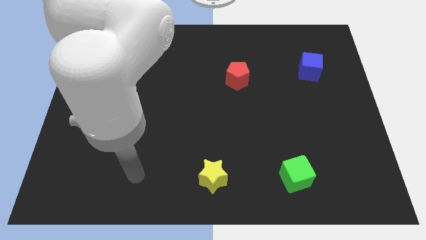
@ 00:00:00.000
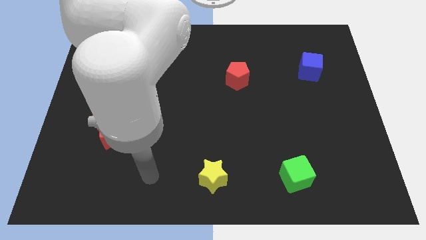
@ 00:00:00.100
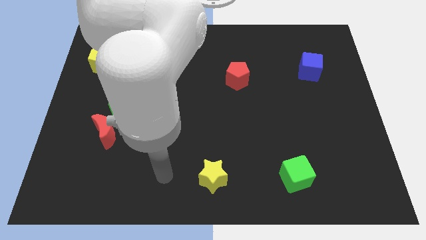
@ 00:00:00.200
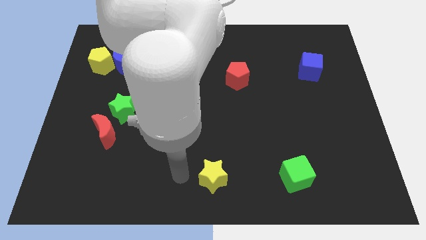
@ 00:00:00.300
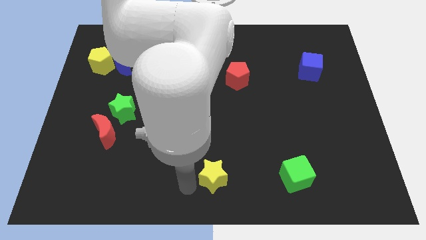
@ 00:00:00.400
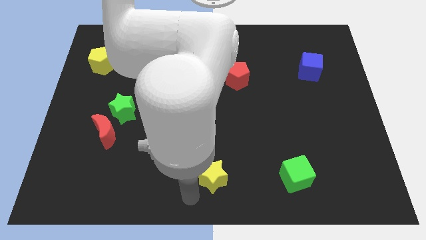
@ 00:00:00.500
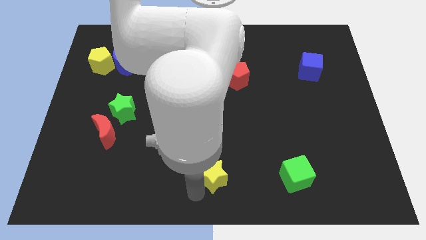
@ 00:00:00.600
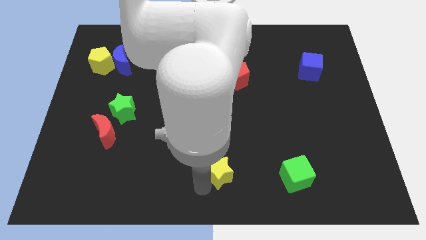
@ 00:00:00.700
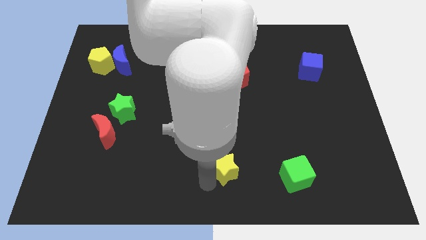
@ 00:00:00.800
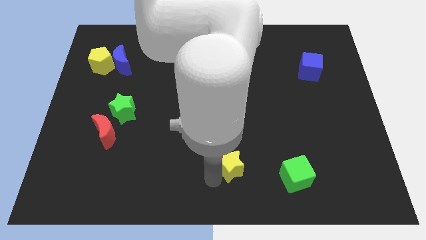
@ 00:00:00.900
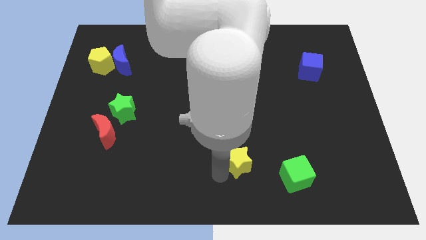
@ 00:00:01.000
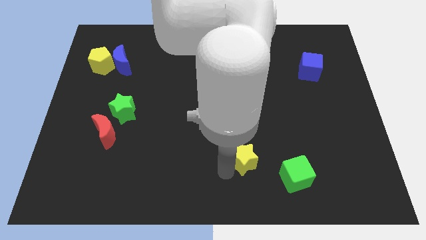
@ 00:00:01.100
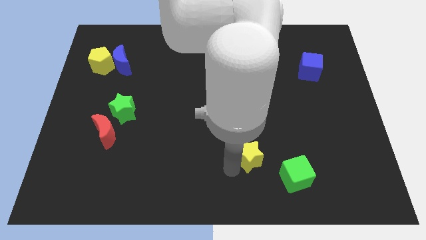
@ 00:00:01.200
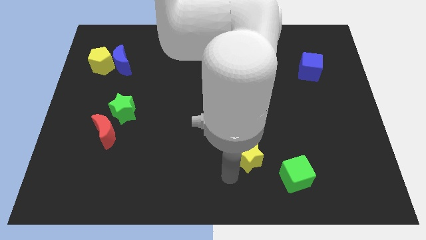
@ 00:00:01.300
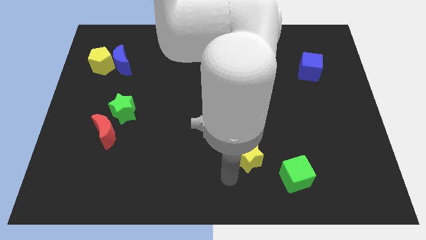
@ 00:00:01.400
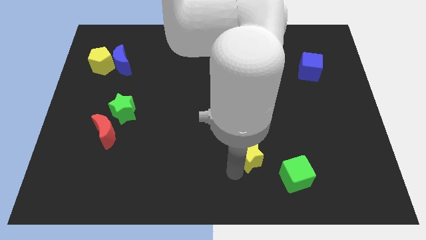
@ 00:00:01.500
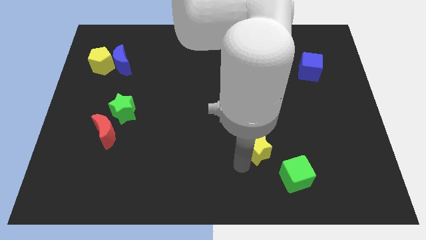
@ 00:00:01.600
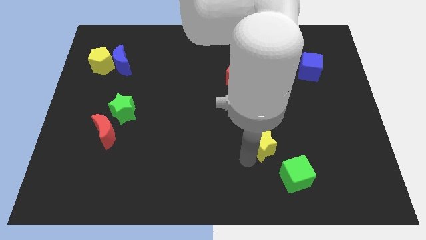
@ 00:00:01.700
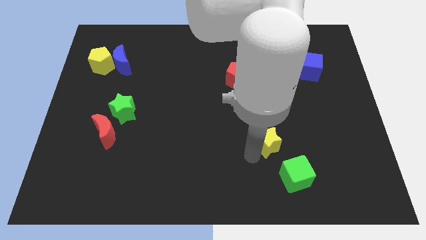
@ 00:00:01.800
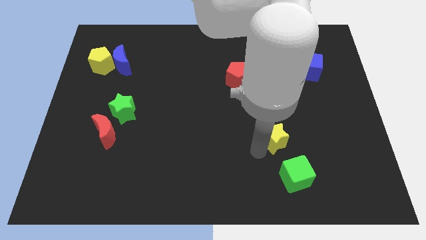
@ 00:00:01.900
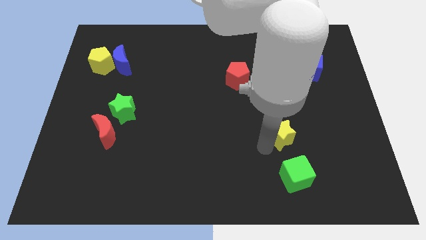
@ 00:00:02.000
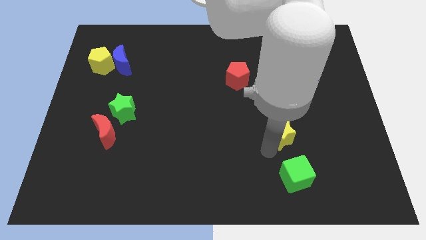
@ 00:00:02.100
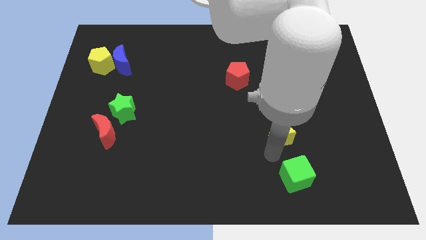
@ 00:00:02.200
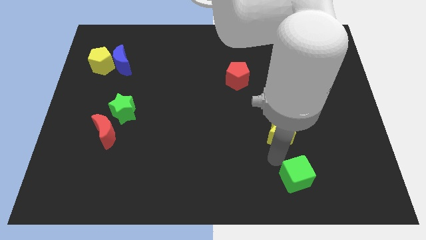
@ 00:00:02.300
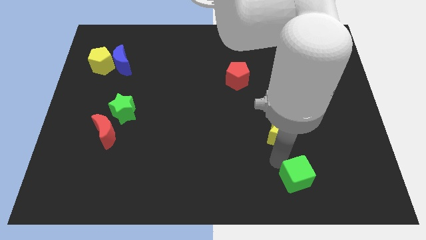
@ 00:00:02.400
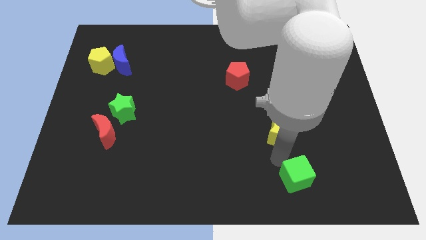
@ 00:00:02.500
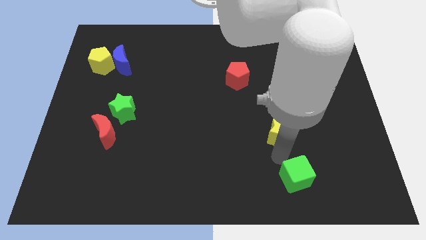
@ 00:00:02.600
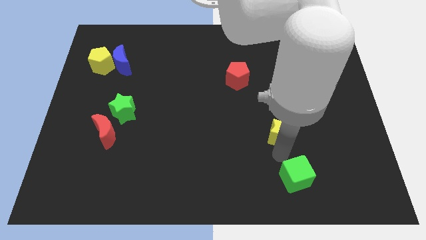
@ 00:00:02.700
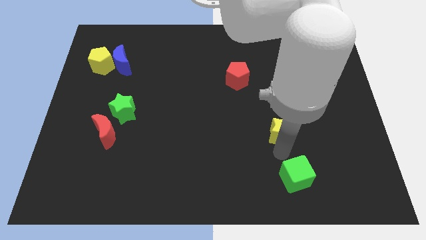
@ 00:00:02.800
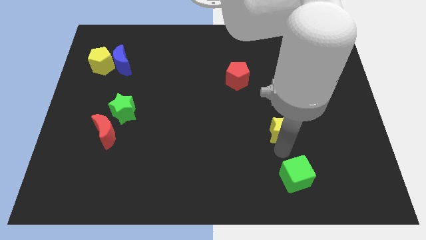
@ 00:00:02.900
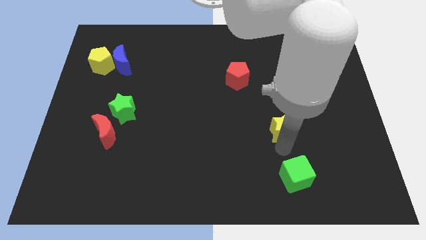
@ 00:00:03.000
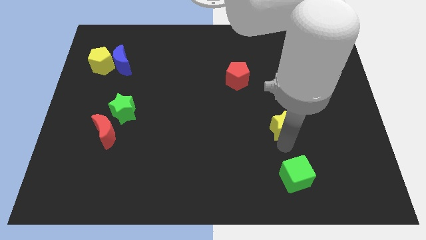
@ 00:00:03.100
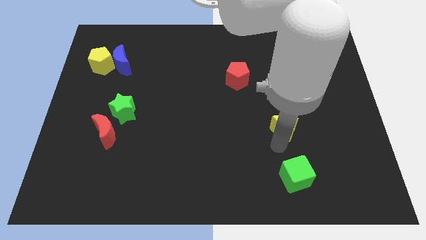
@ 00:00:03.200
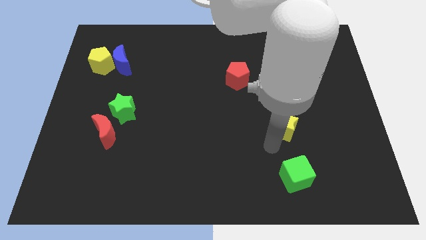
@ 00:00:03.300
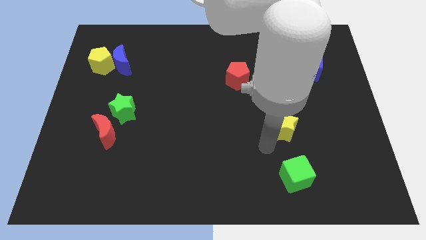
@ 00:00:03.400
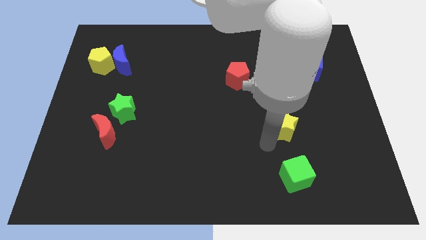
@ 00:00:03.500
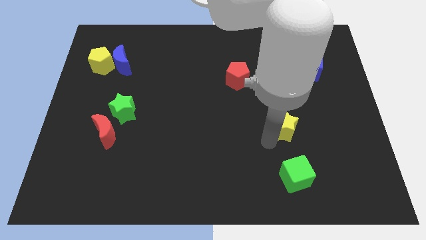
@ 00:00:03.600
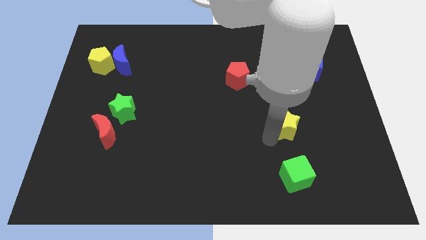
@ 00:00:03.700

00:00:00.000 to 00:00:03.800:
slide the yellow star up and right diagonally

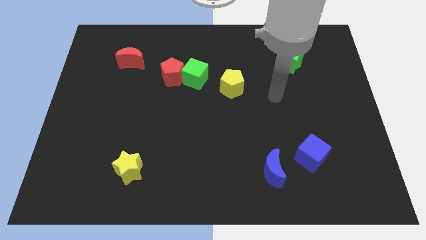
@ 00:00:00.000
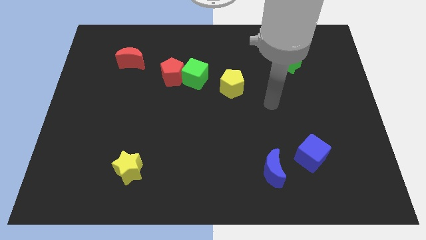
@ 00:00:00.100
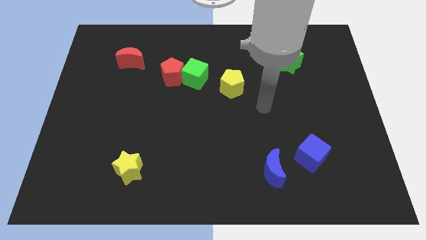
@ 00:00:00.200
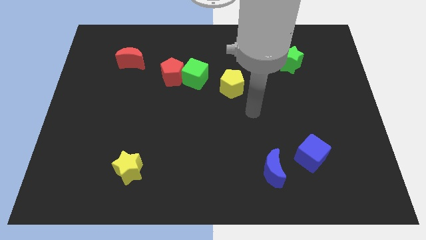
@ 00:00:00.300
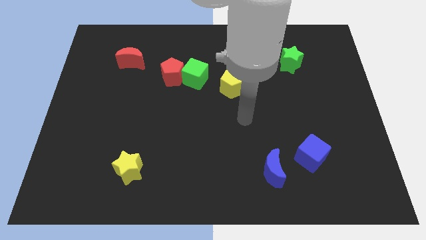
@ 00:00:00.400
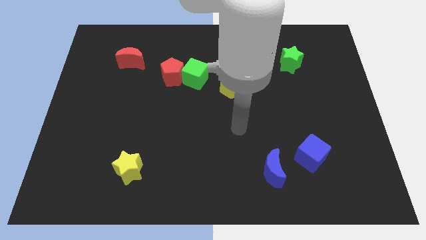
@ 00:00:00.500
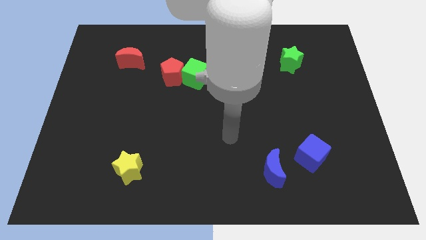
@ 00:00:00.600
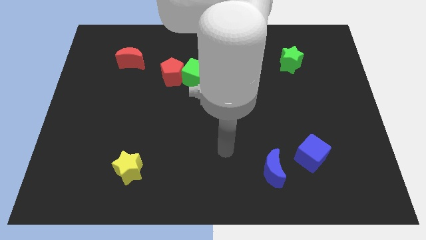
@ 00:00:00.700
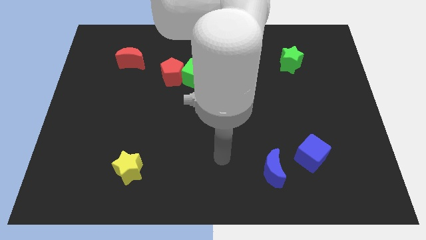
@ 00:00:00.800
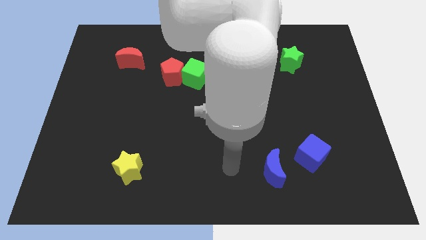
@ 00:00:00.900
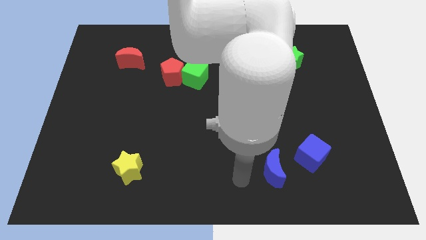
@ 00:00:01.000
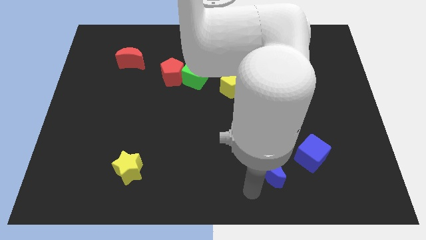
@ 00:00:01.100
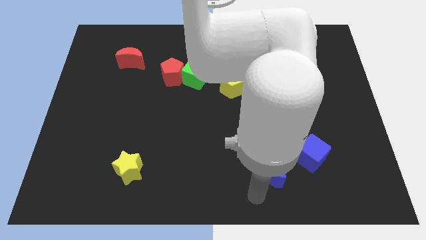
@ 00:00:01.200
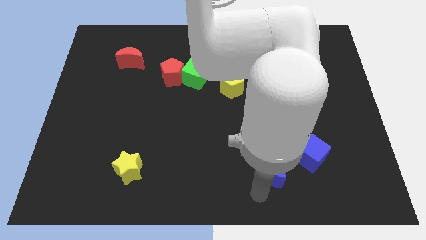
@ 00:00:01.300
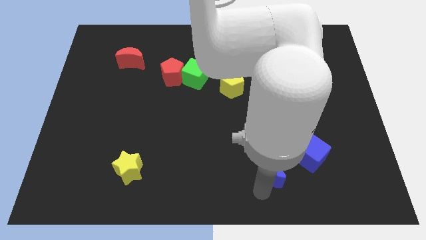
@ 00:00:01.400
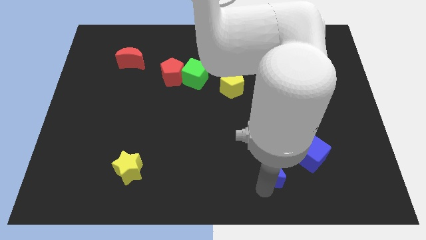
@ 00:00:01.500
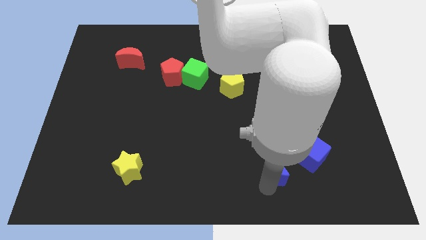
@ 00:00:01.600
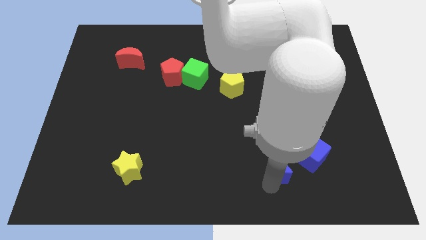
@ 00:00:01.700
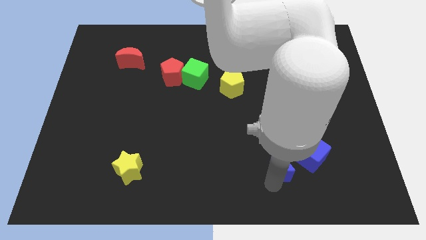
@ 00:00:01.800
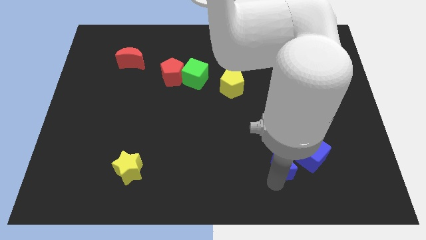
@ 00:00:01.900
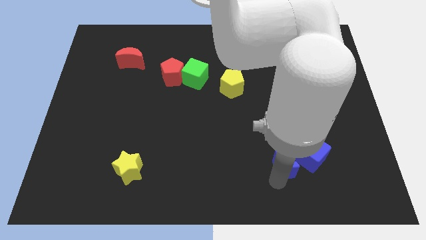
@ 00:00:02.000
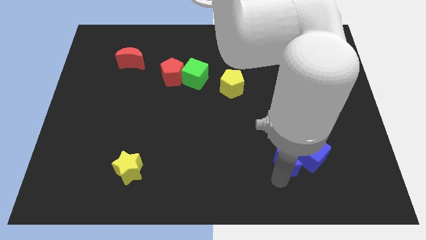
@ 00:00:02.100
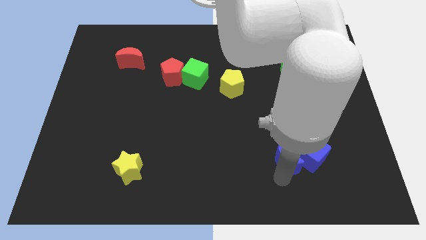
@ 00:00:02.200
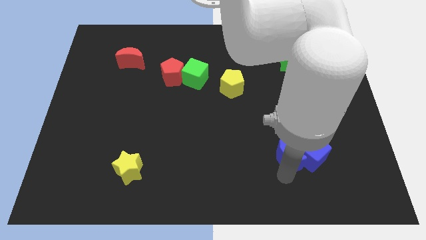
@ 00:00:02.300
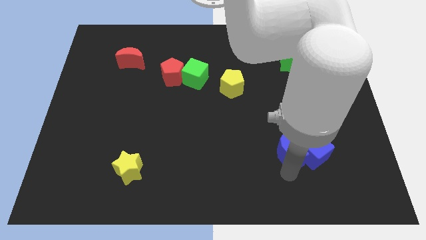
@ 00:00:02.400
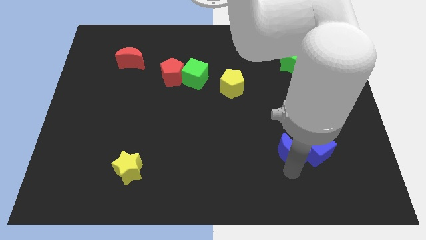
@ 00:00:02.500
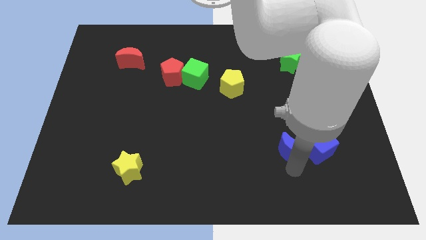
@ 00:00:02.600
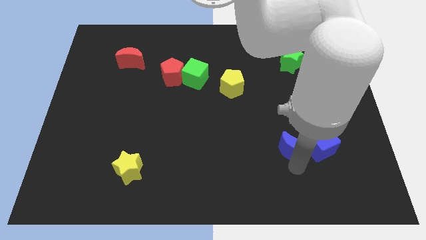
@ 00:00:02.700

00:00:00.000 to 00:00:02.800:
slightly slide the blue moon up and then to the right

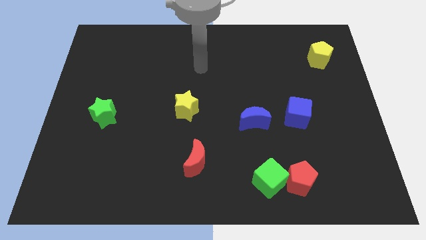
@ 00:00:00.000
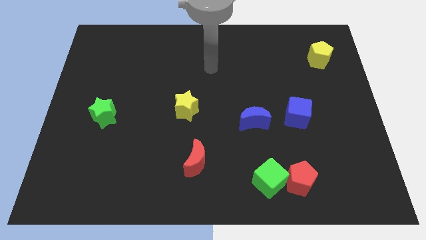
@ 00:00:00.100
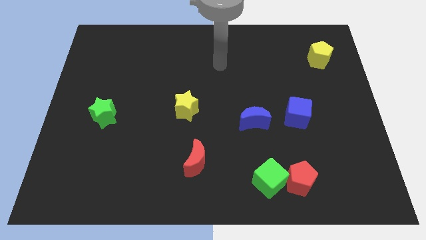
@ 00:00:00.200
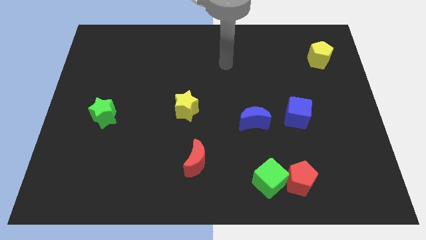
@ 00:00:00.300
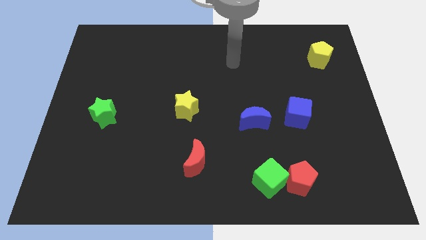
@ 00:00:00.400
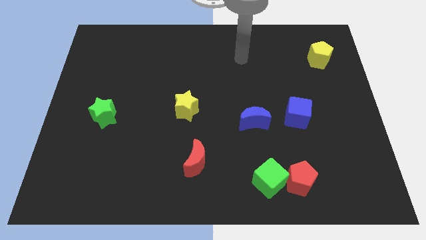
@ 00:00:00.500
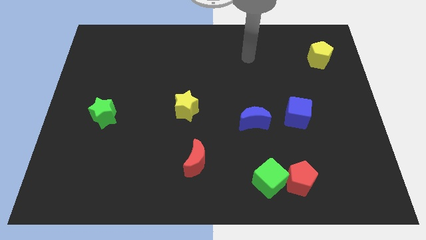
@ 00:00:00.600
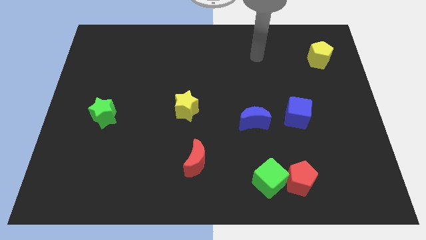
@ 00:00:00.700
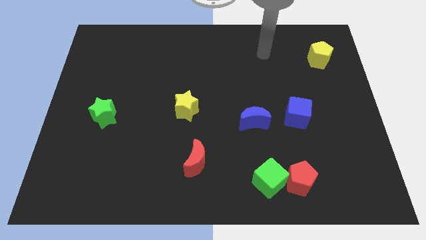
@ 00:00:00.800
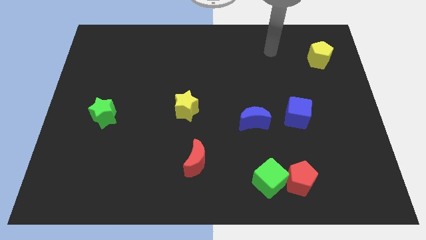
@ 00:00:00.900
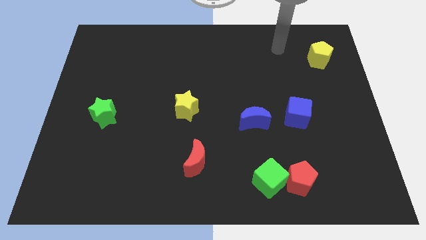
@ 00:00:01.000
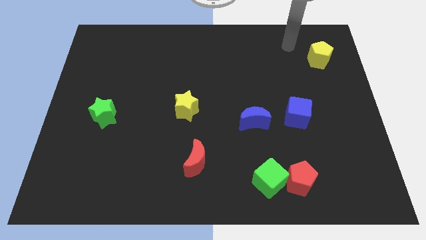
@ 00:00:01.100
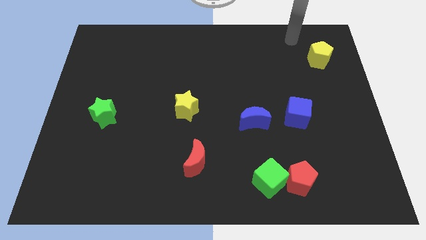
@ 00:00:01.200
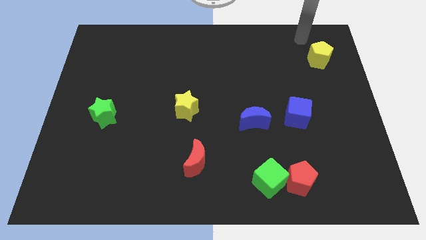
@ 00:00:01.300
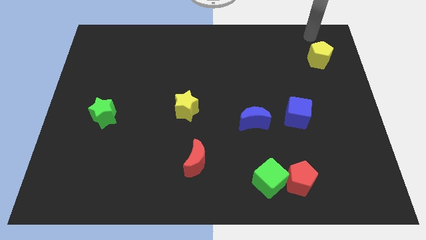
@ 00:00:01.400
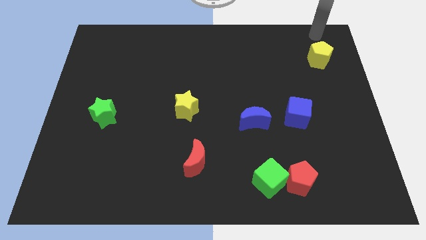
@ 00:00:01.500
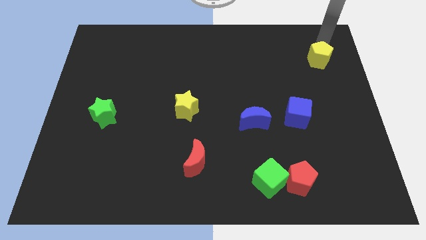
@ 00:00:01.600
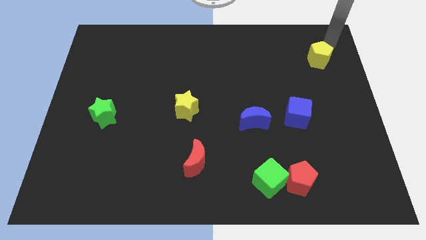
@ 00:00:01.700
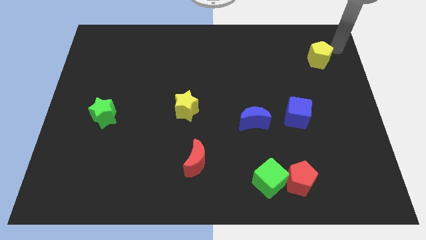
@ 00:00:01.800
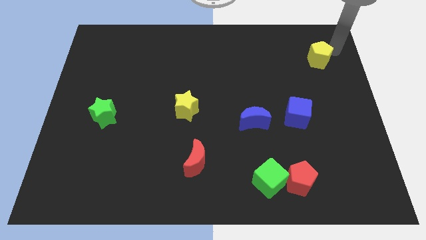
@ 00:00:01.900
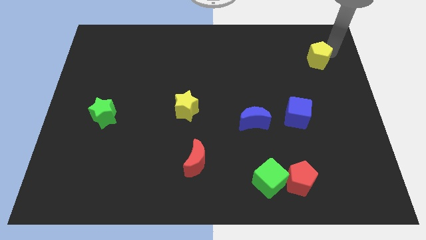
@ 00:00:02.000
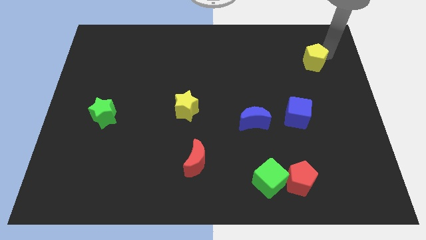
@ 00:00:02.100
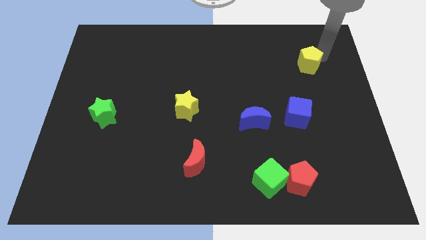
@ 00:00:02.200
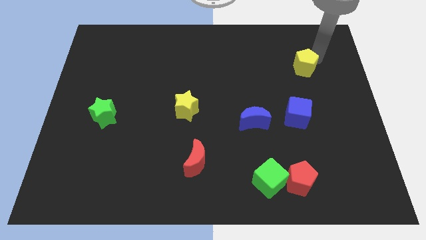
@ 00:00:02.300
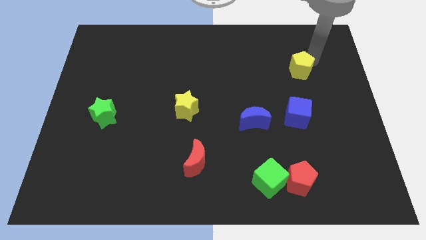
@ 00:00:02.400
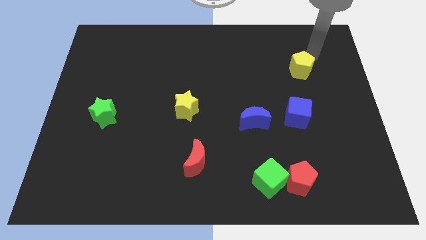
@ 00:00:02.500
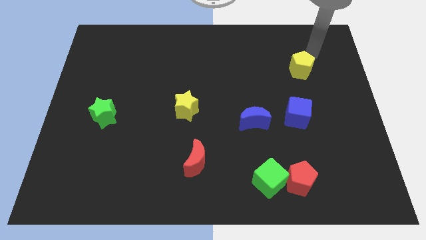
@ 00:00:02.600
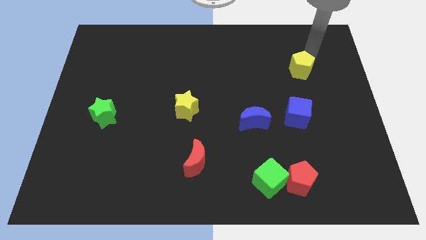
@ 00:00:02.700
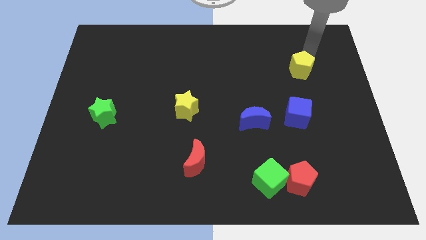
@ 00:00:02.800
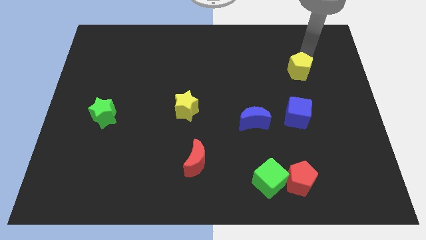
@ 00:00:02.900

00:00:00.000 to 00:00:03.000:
slightly slide the yellow pentagon diagonally downwards and to the left
